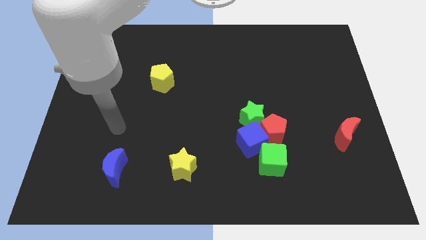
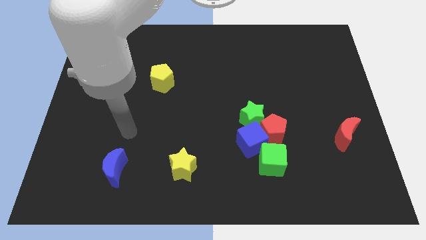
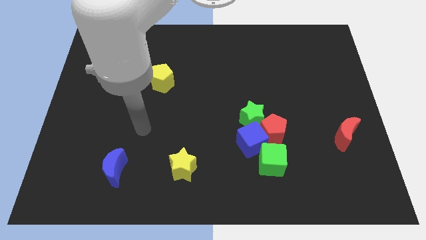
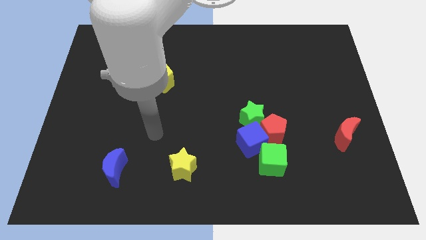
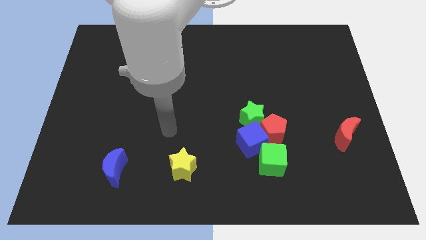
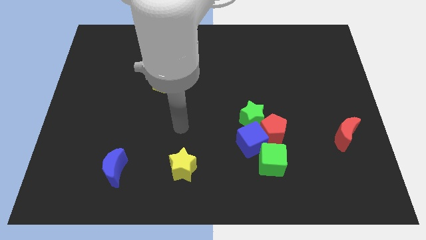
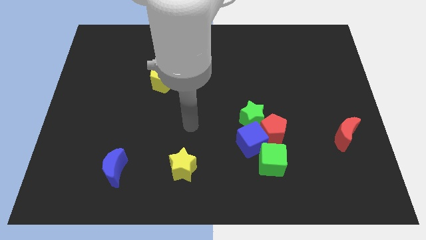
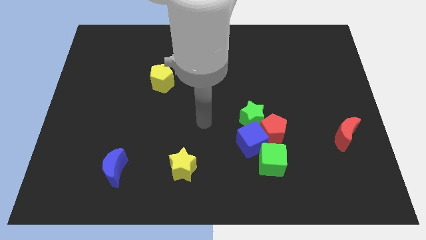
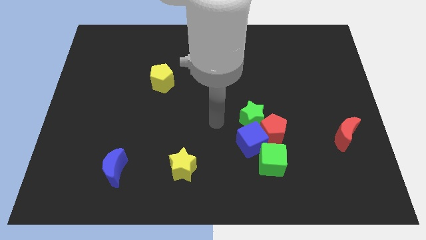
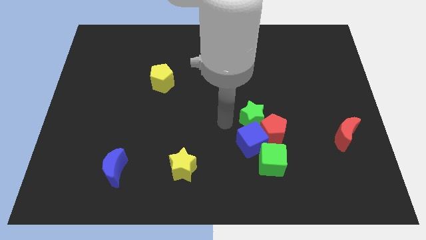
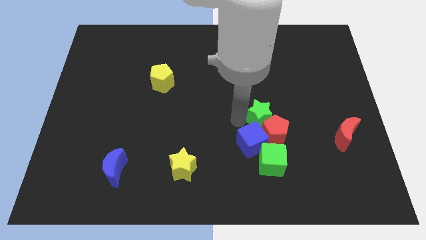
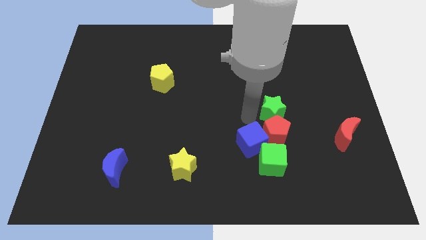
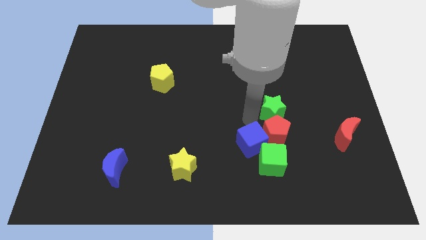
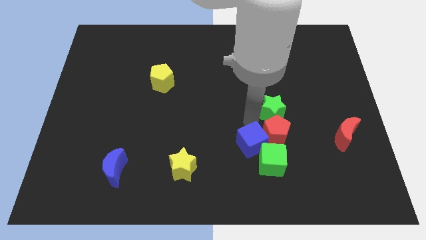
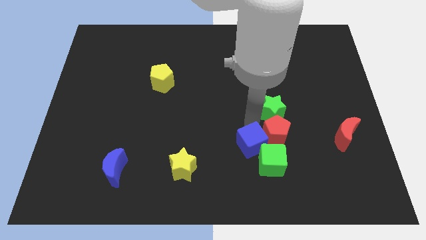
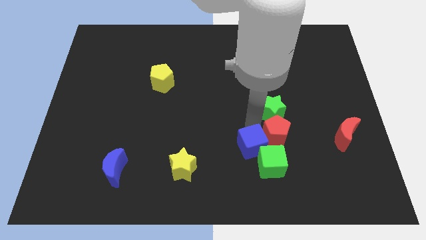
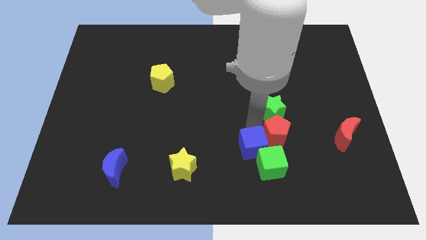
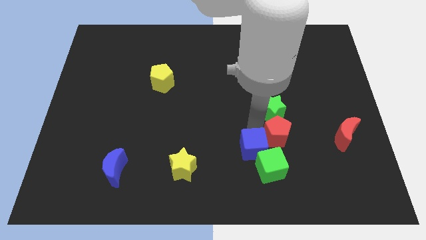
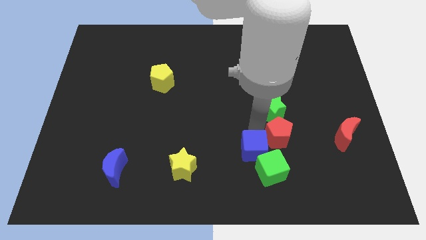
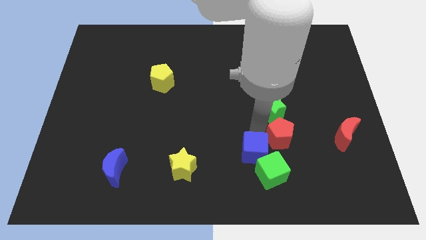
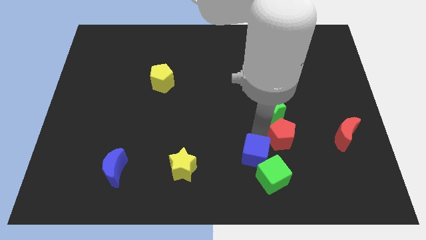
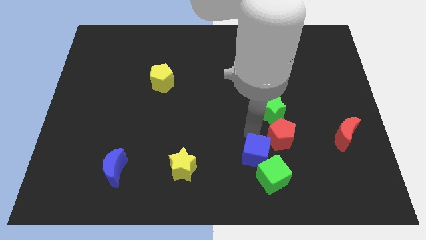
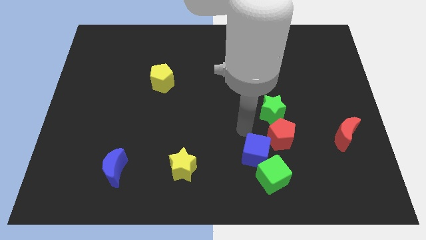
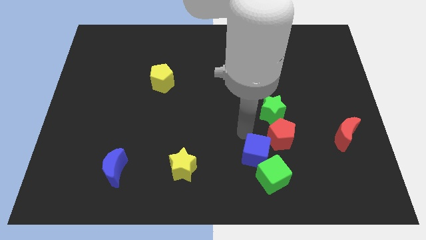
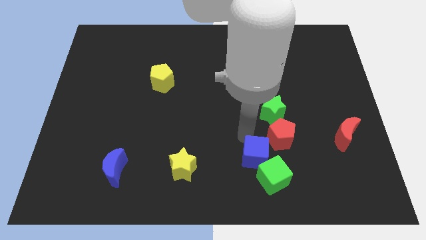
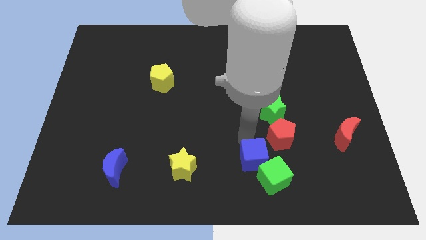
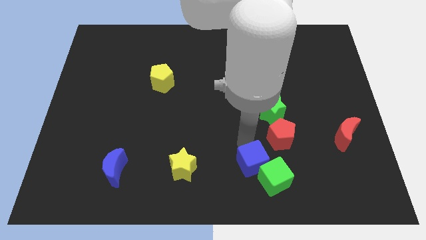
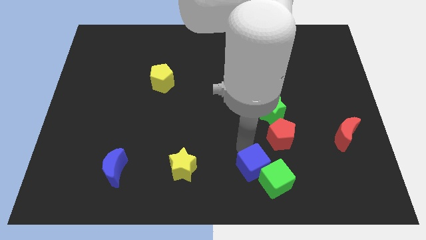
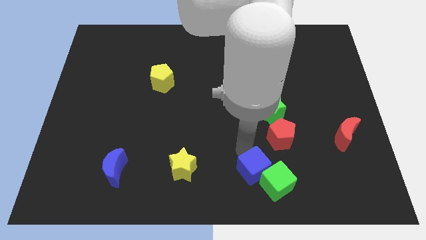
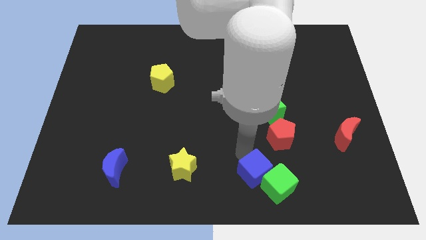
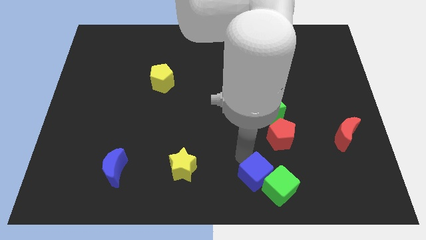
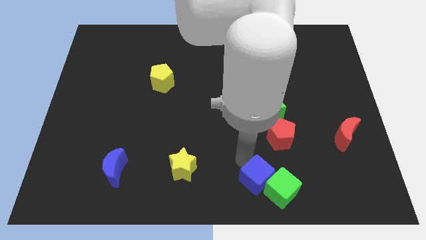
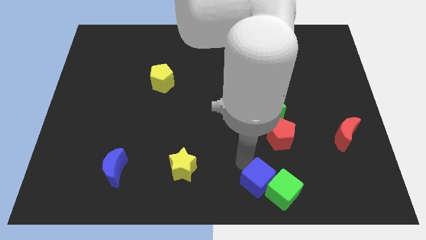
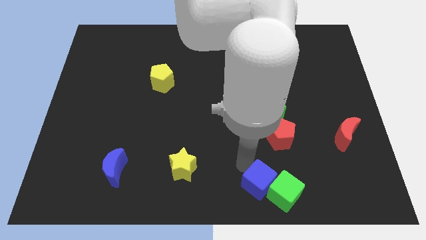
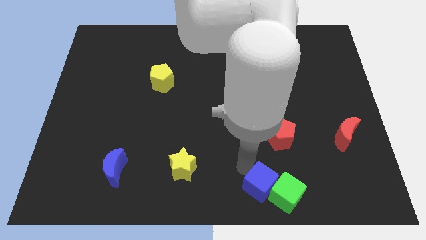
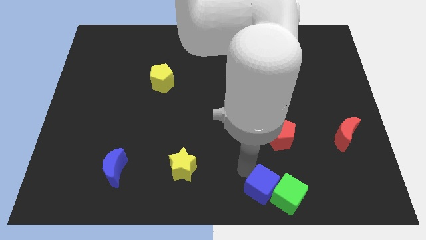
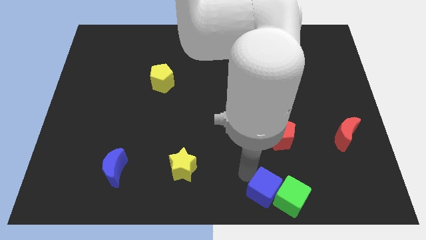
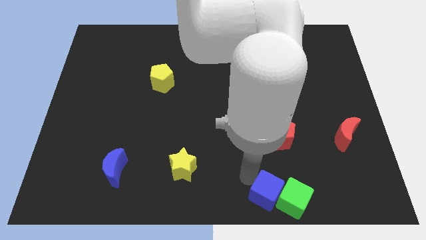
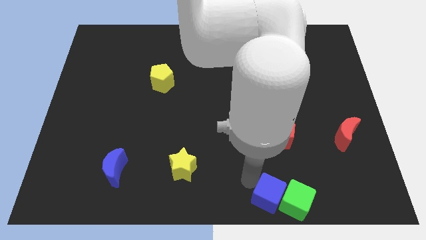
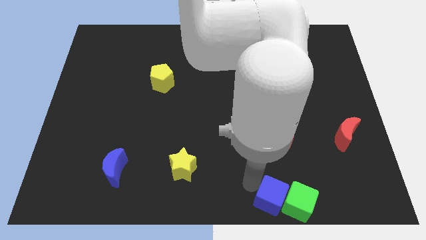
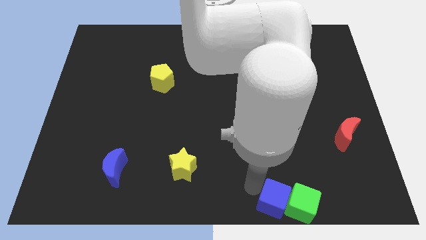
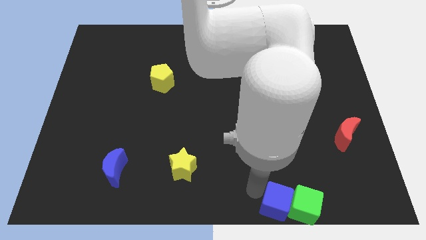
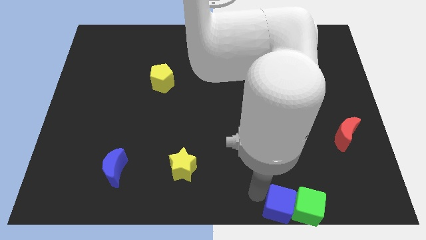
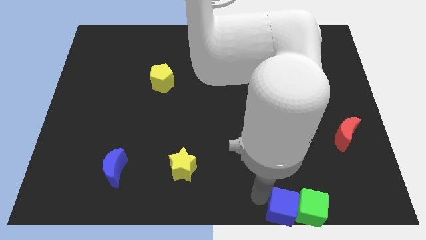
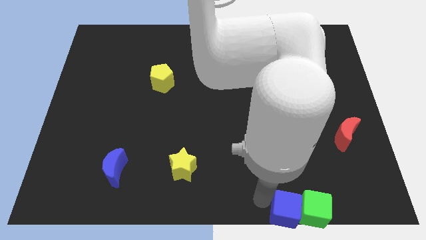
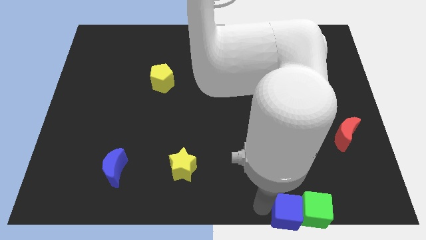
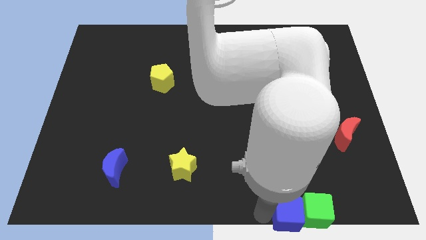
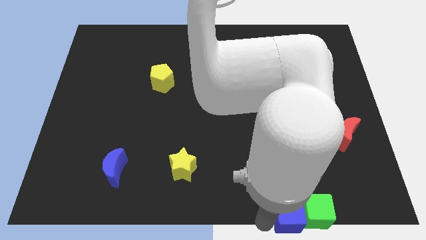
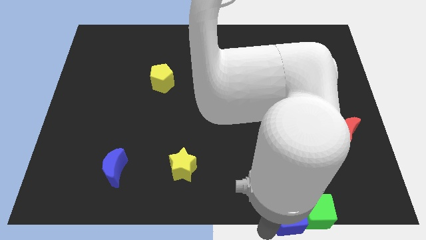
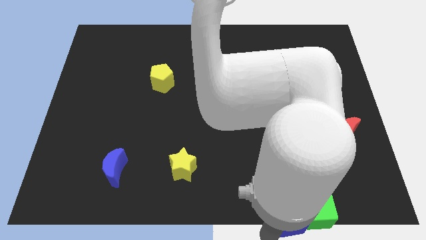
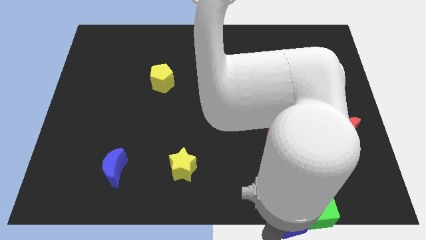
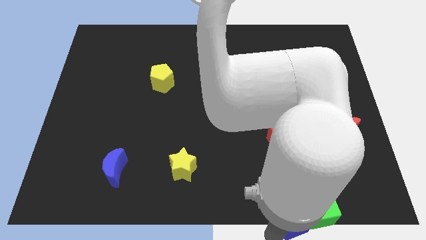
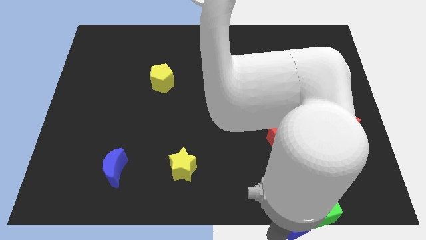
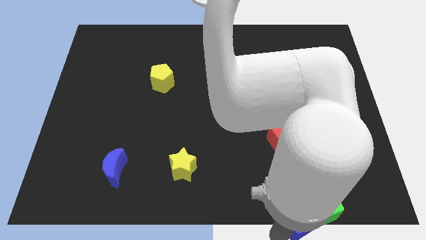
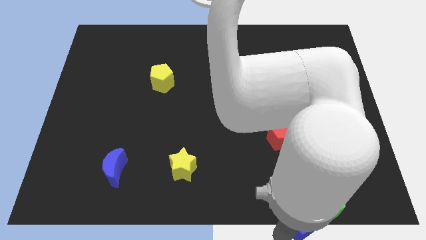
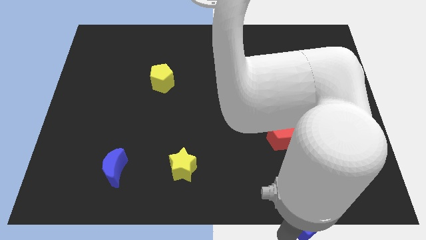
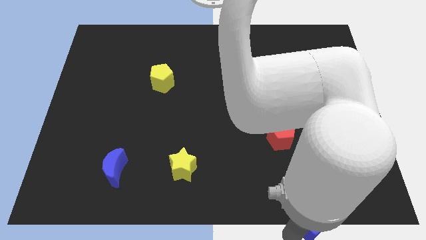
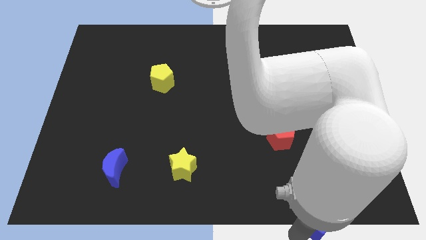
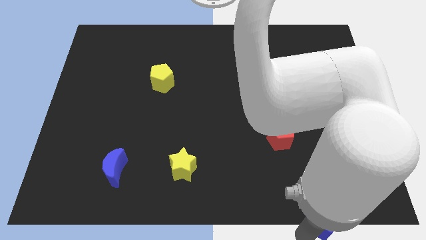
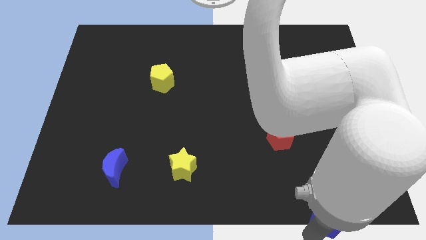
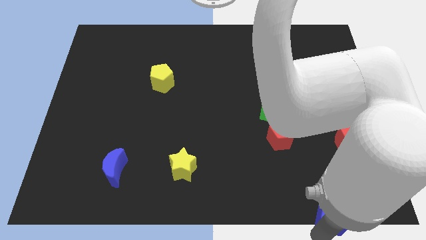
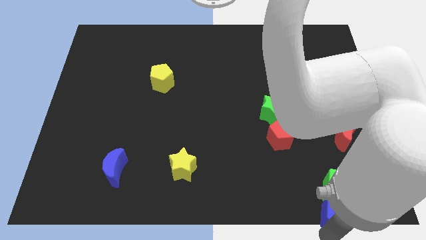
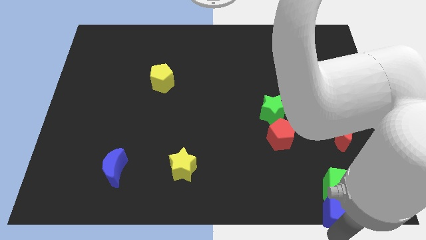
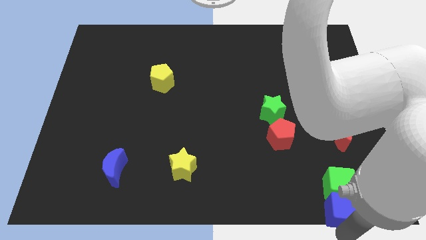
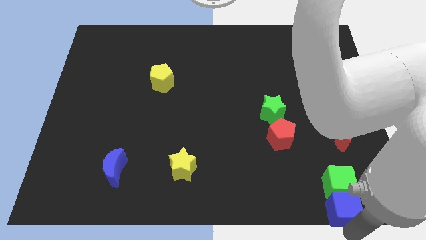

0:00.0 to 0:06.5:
move the blue cube to the bottom right of the board

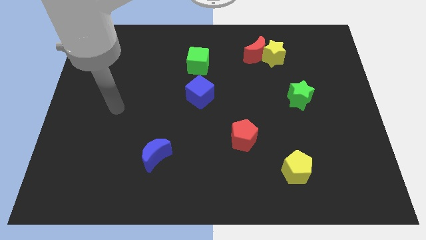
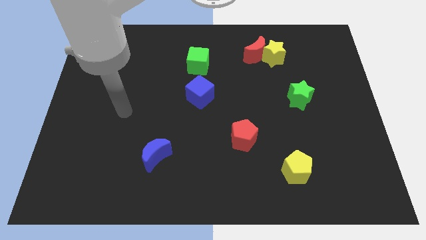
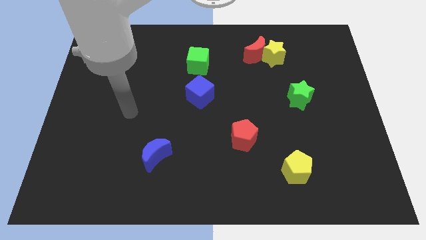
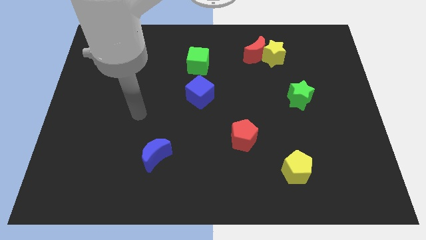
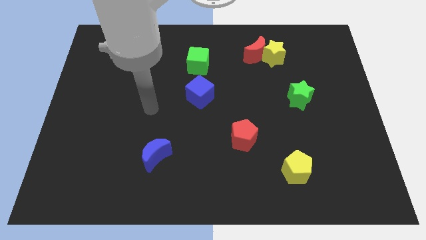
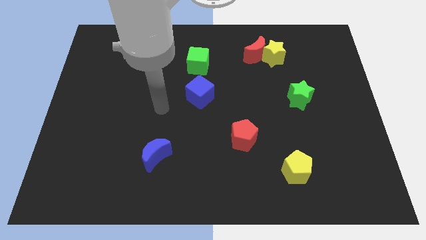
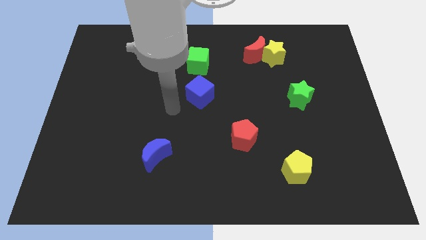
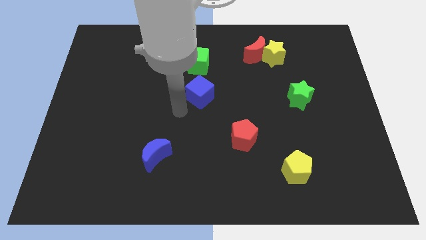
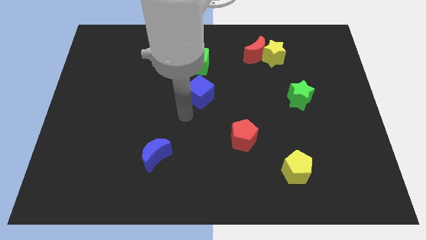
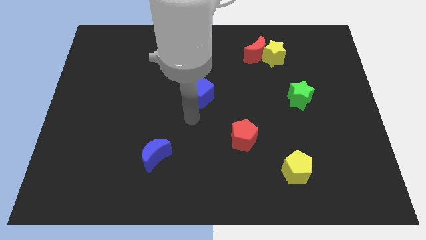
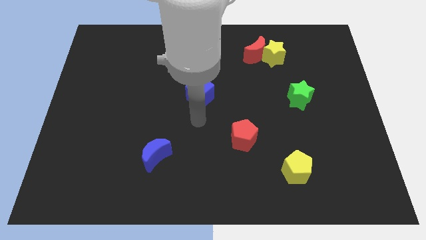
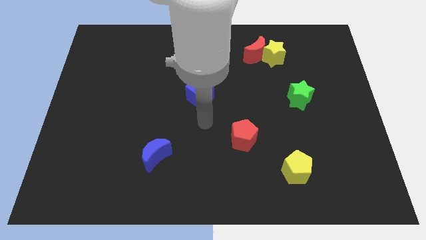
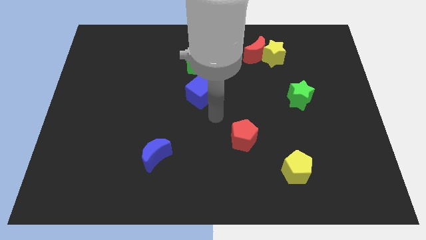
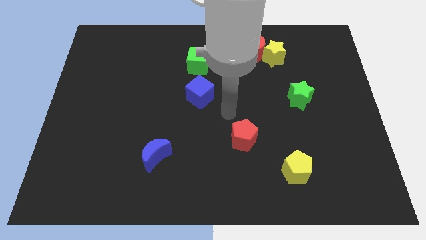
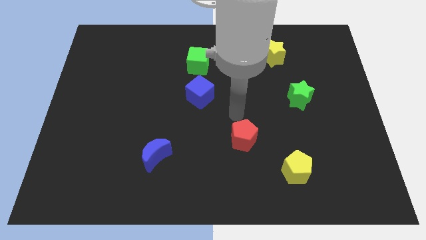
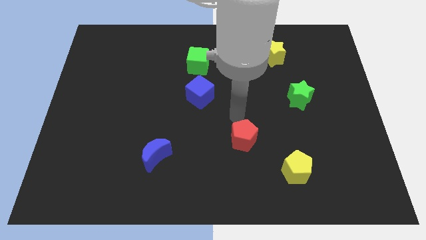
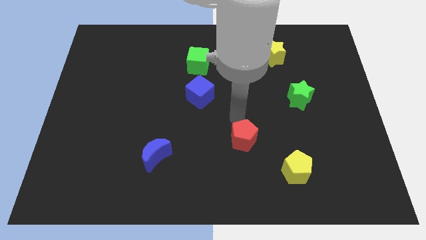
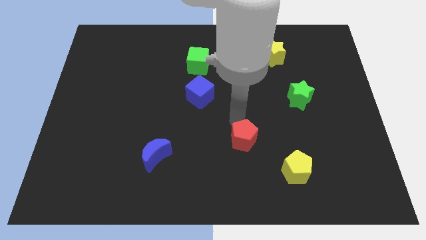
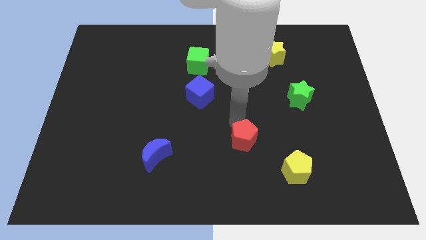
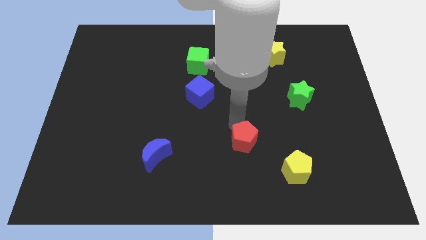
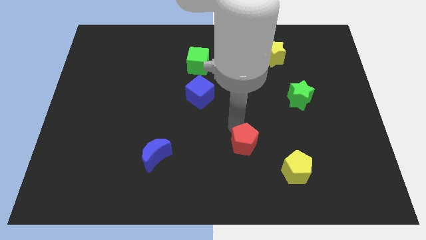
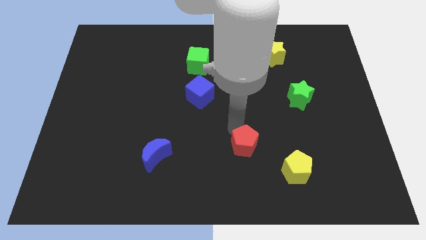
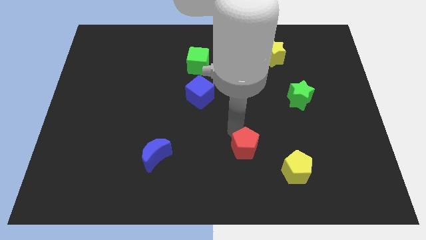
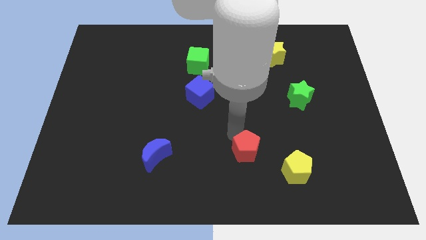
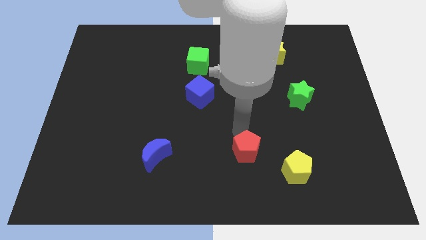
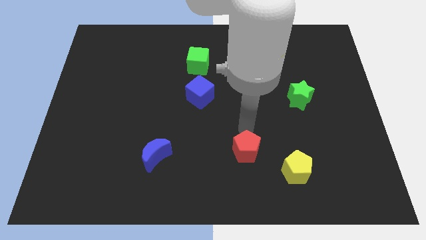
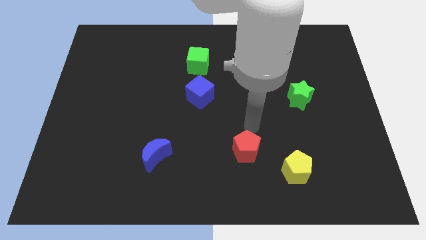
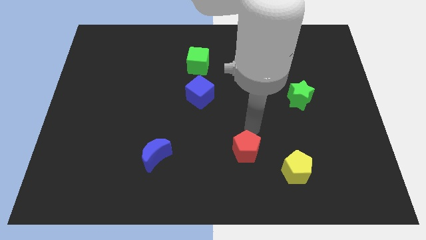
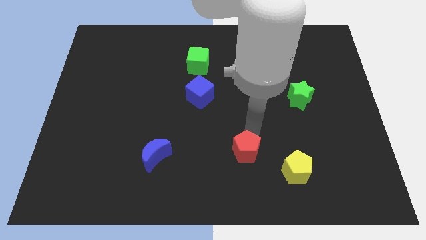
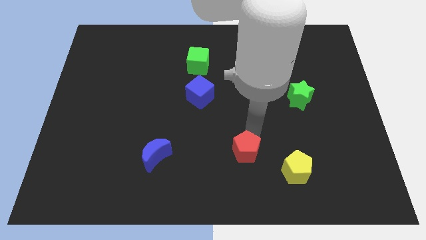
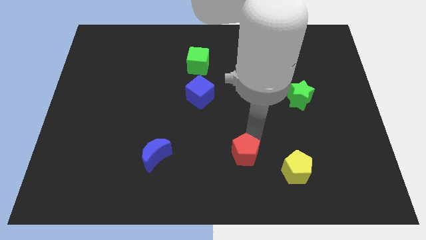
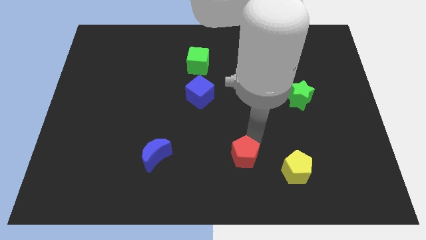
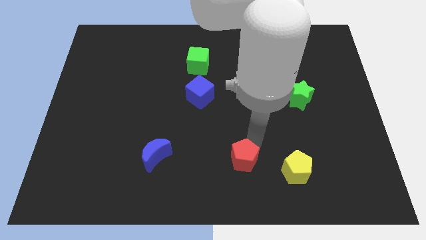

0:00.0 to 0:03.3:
put the red pentagon to the bottom side
